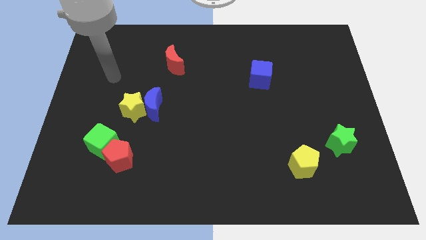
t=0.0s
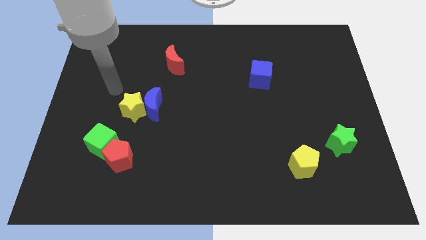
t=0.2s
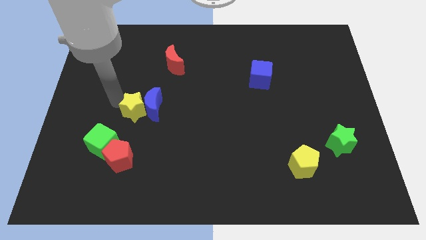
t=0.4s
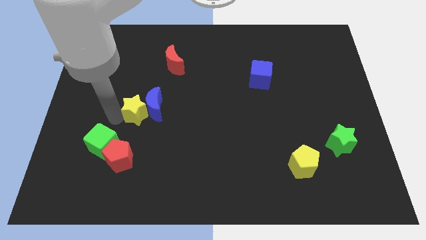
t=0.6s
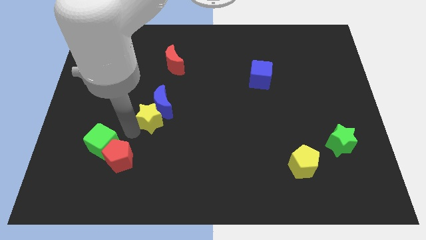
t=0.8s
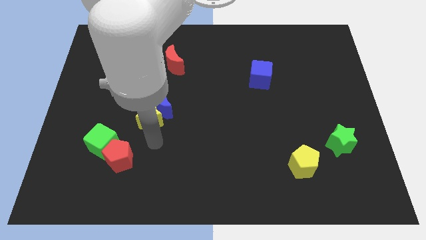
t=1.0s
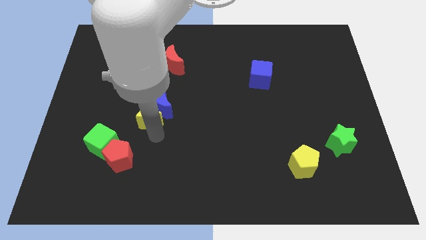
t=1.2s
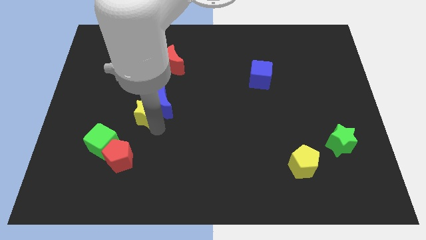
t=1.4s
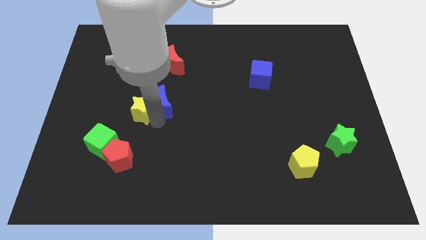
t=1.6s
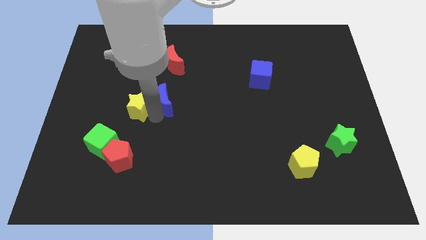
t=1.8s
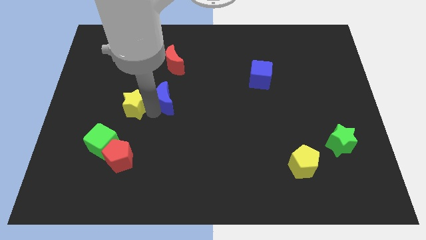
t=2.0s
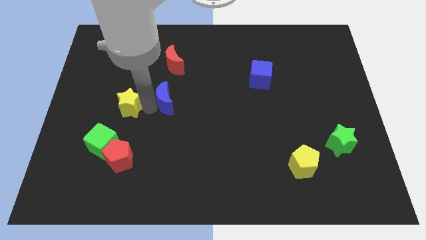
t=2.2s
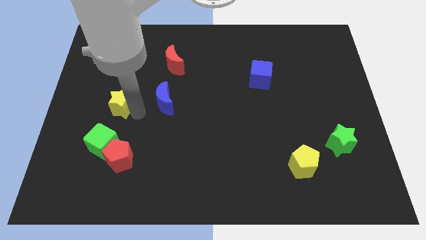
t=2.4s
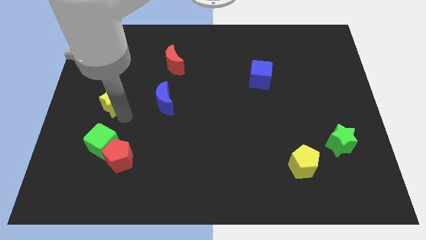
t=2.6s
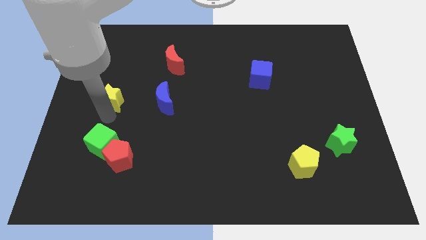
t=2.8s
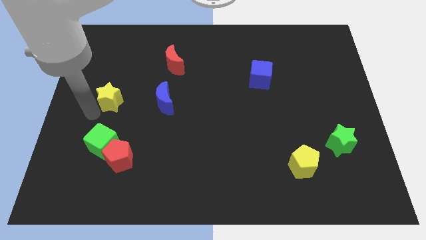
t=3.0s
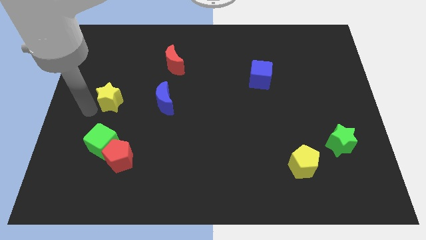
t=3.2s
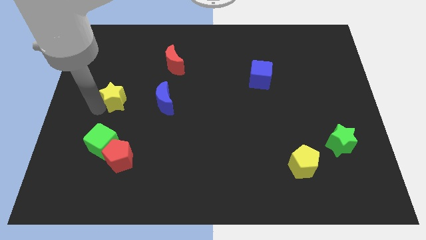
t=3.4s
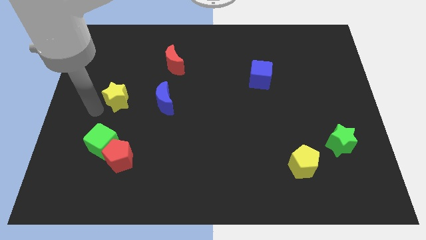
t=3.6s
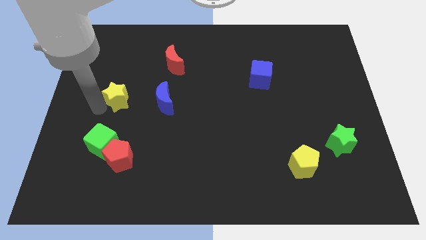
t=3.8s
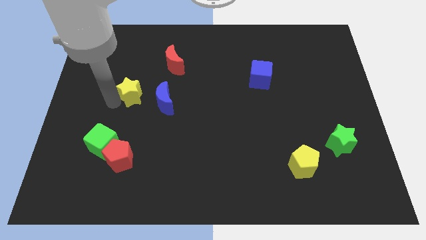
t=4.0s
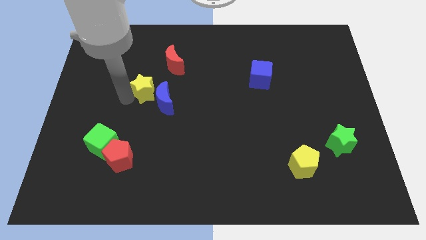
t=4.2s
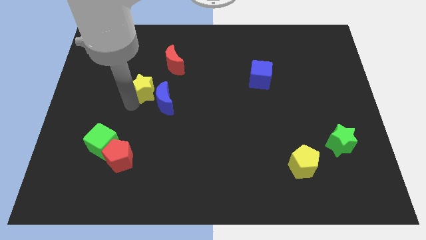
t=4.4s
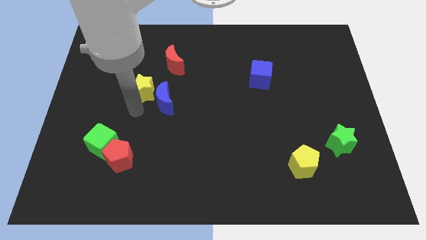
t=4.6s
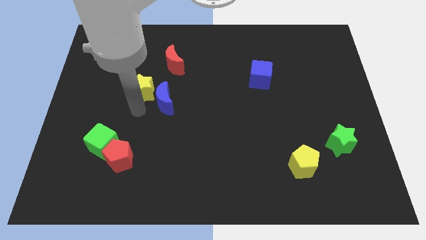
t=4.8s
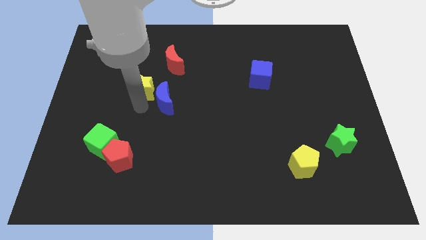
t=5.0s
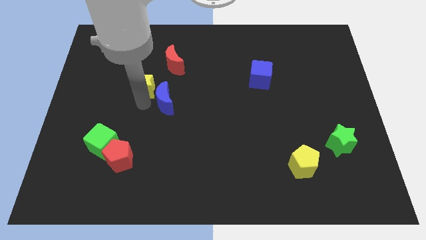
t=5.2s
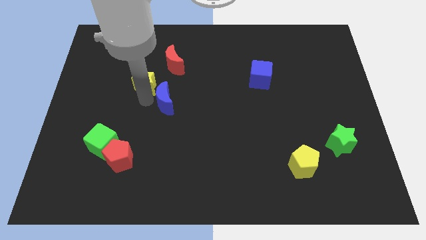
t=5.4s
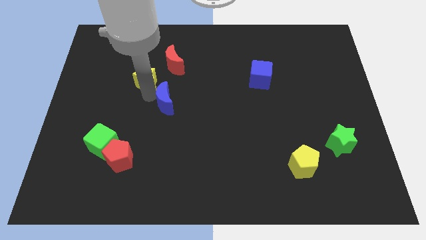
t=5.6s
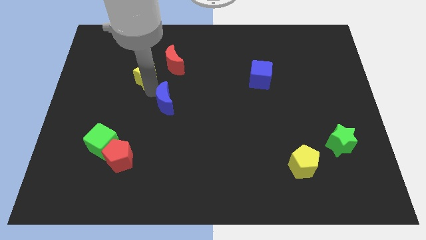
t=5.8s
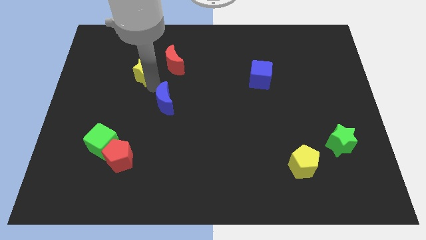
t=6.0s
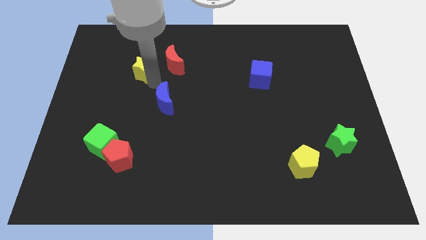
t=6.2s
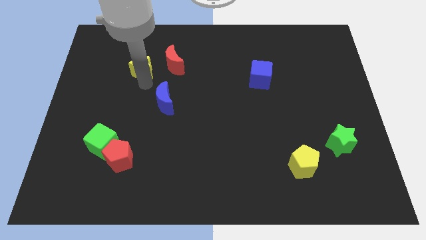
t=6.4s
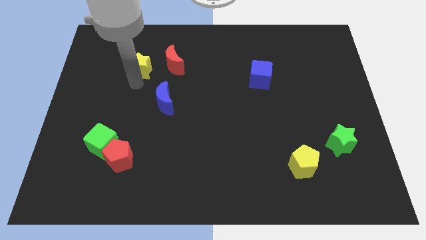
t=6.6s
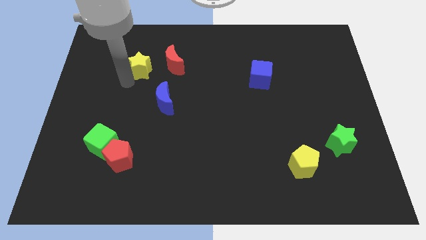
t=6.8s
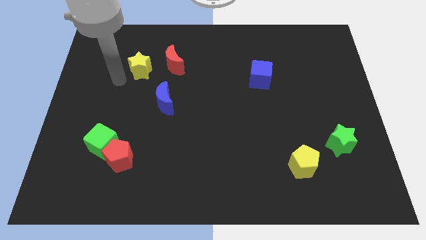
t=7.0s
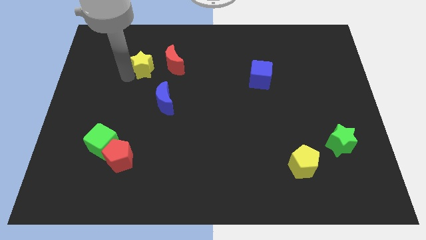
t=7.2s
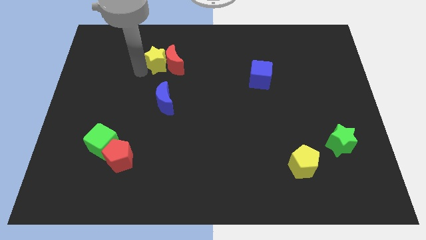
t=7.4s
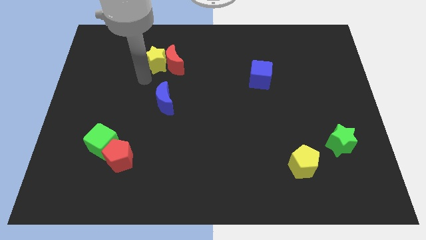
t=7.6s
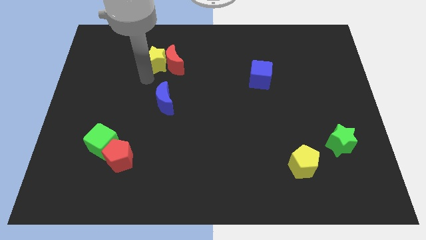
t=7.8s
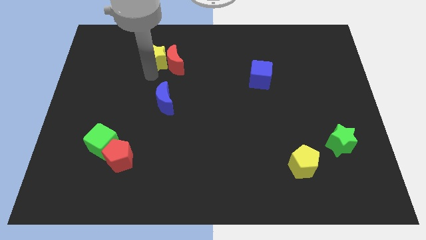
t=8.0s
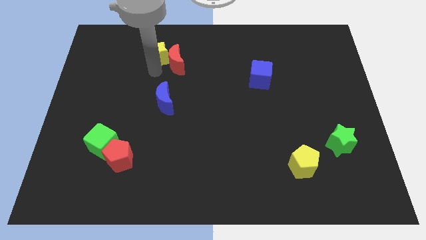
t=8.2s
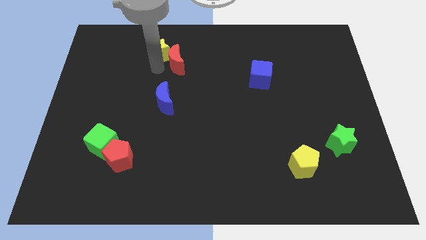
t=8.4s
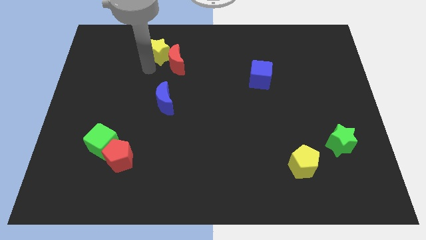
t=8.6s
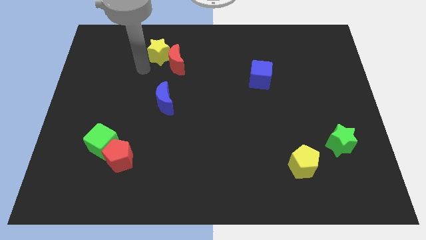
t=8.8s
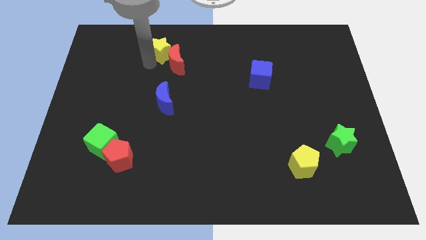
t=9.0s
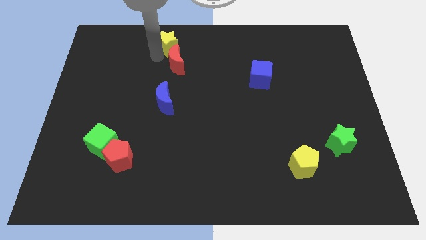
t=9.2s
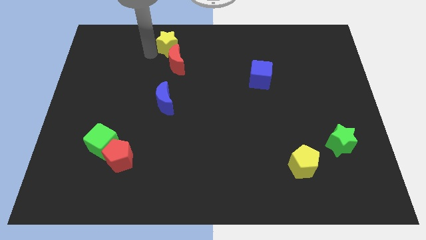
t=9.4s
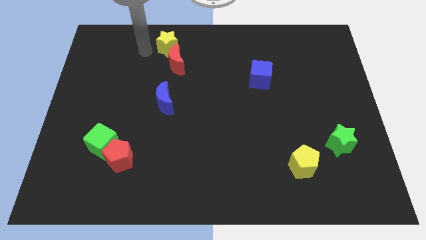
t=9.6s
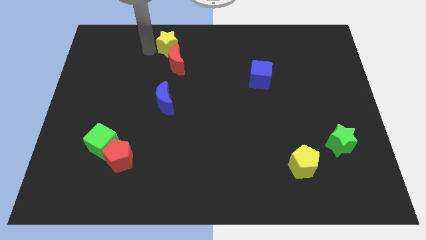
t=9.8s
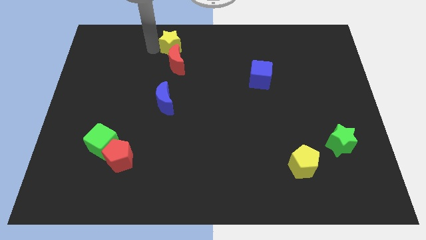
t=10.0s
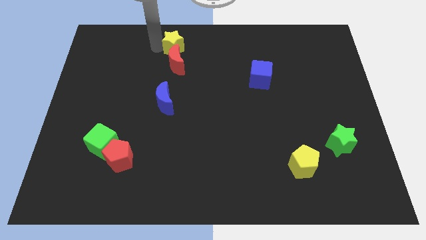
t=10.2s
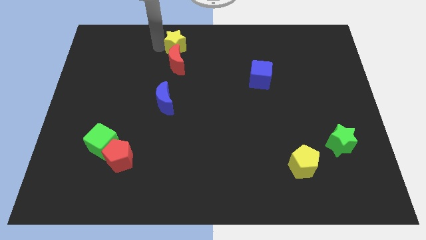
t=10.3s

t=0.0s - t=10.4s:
put the yellow star to the top

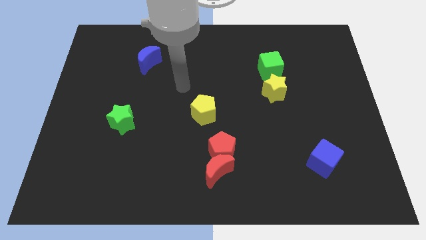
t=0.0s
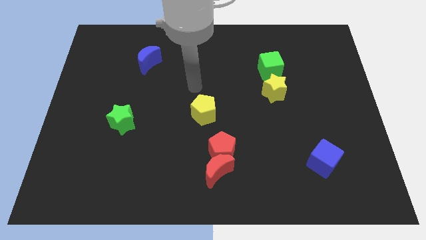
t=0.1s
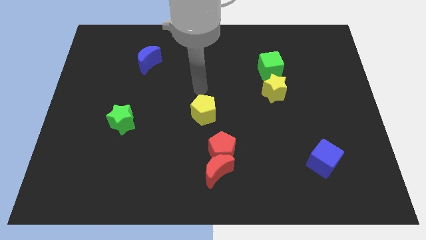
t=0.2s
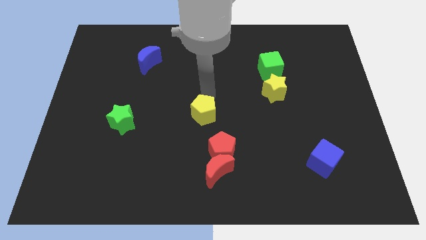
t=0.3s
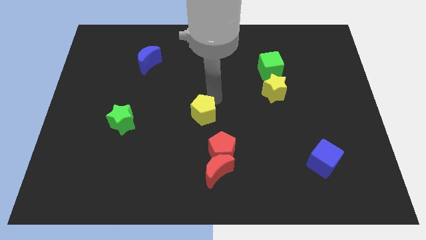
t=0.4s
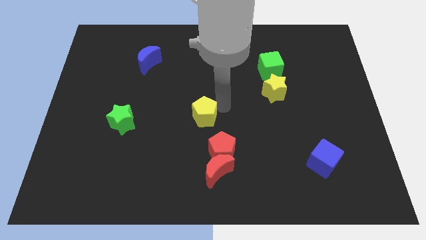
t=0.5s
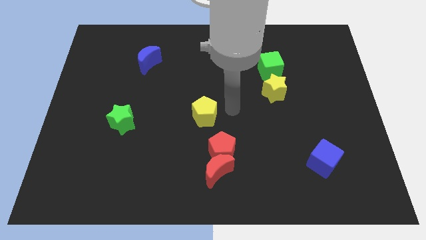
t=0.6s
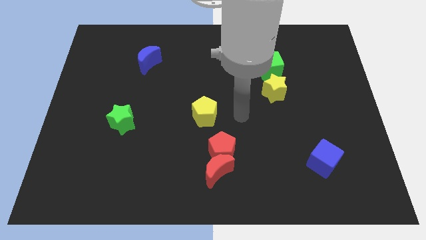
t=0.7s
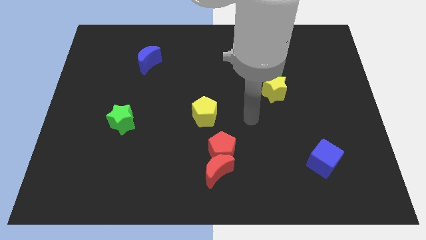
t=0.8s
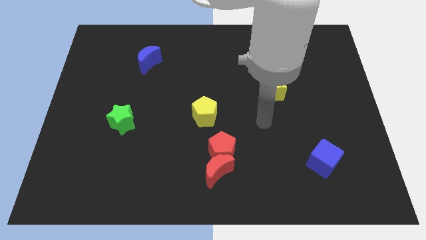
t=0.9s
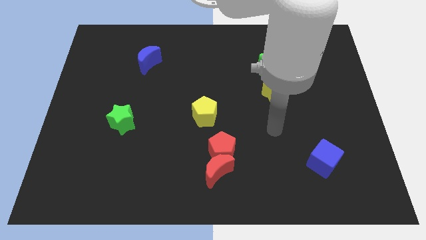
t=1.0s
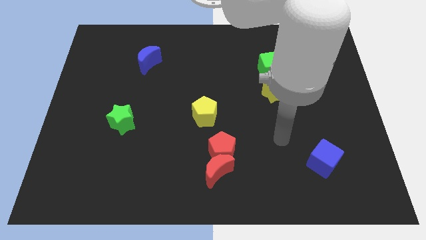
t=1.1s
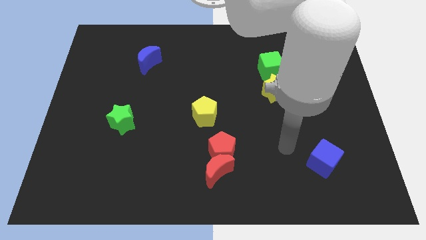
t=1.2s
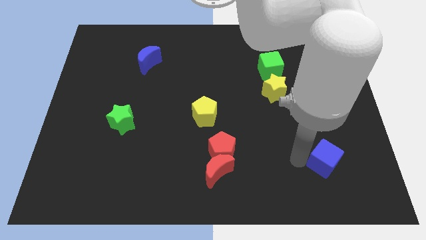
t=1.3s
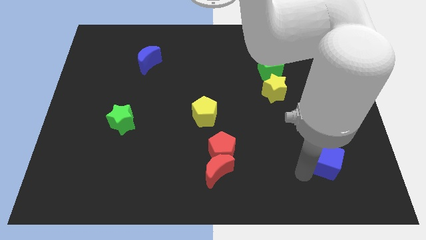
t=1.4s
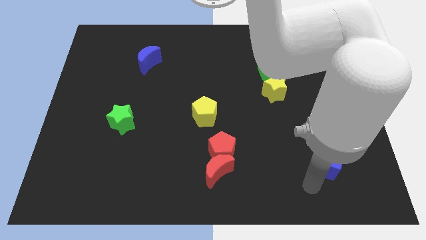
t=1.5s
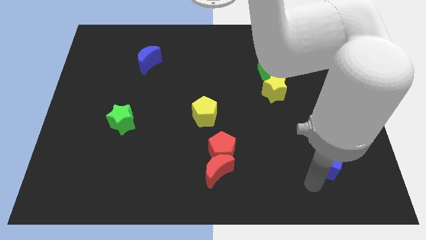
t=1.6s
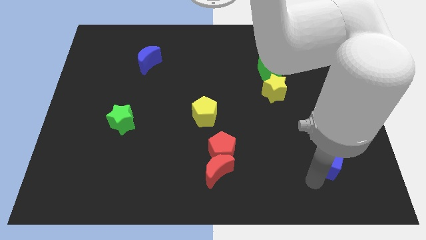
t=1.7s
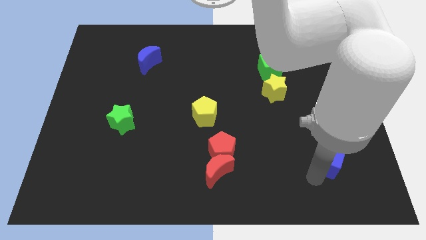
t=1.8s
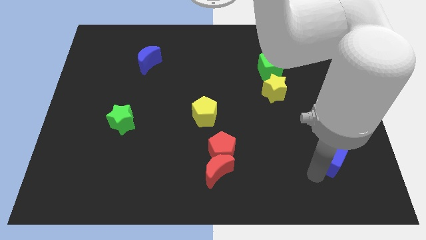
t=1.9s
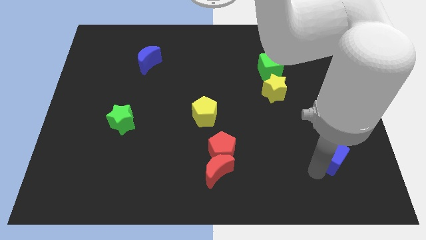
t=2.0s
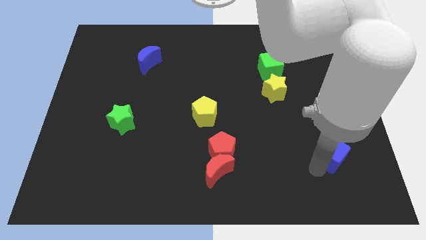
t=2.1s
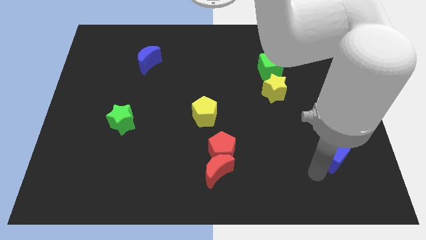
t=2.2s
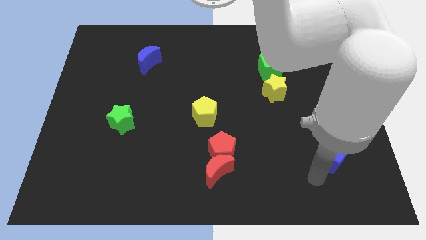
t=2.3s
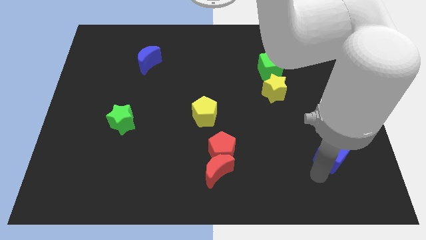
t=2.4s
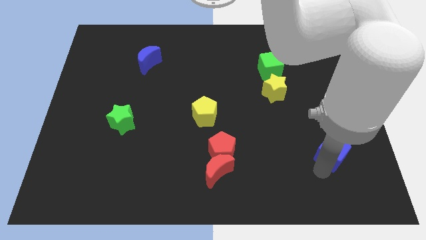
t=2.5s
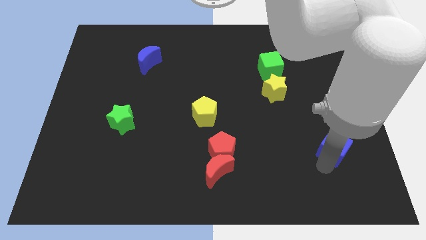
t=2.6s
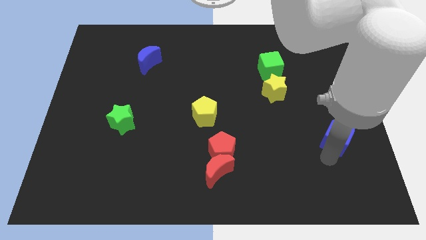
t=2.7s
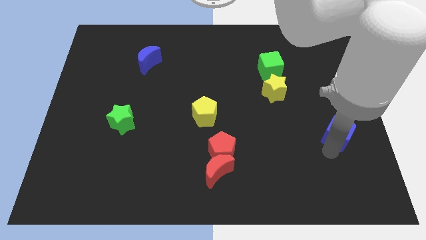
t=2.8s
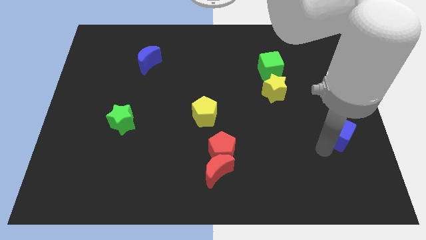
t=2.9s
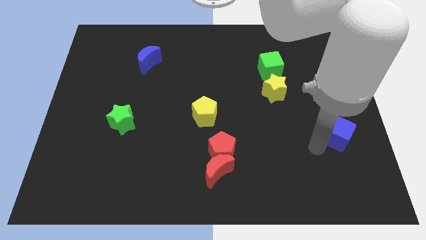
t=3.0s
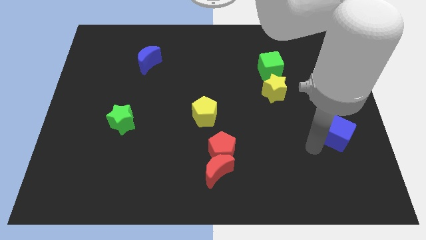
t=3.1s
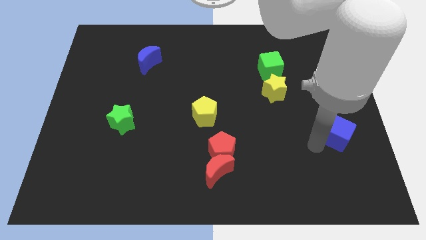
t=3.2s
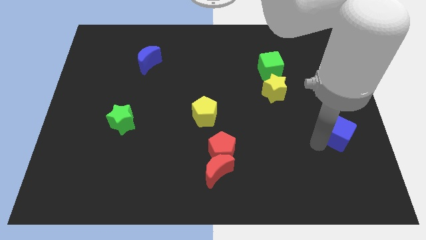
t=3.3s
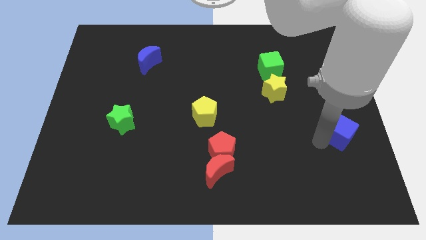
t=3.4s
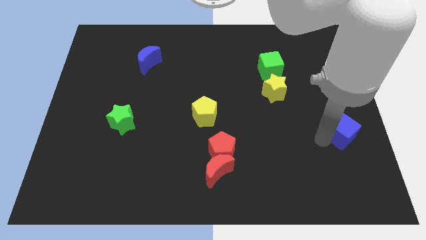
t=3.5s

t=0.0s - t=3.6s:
put the blue cube to the right side
